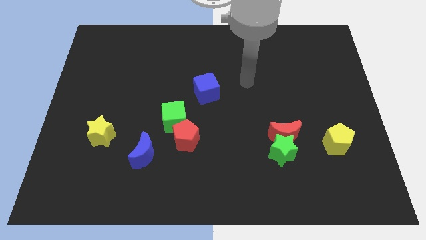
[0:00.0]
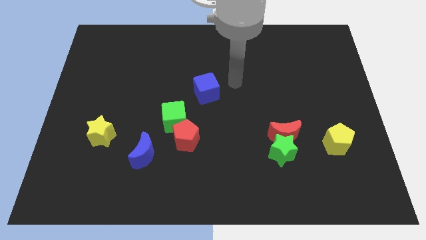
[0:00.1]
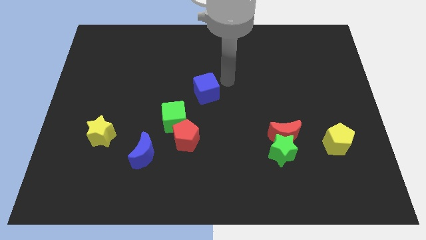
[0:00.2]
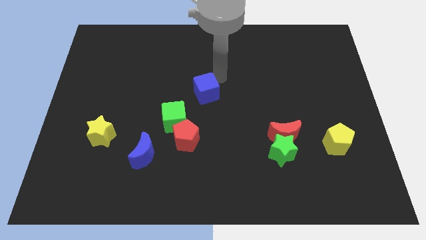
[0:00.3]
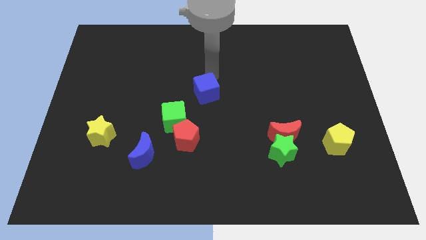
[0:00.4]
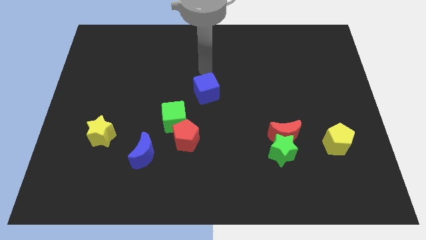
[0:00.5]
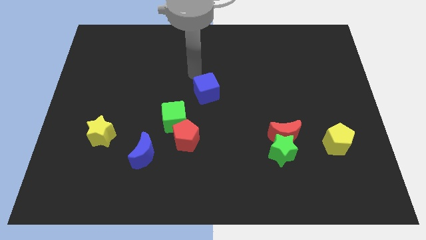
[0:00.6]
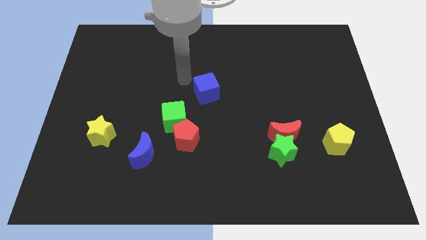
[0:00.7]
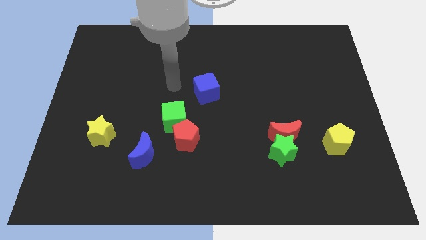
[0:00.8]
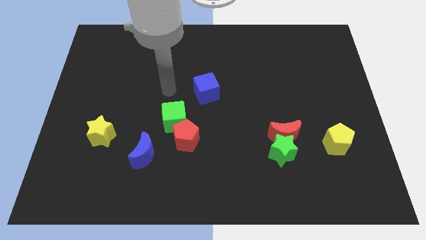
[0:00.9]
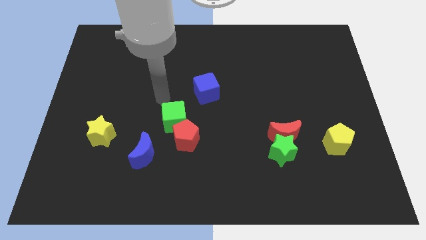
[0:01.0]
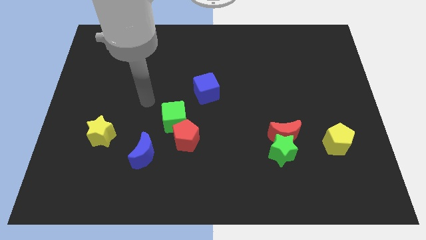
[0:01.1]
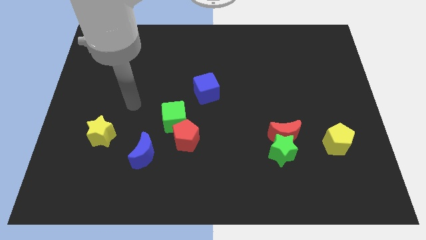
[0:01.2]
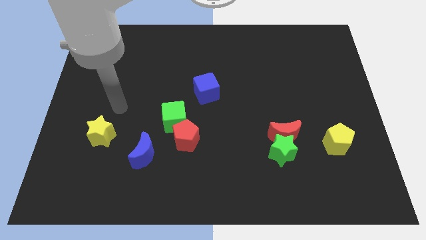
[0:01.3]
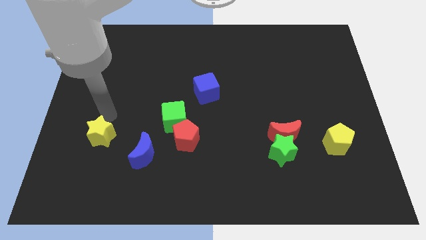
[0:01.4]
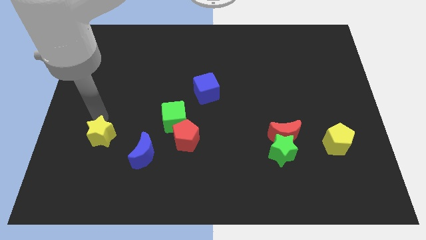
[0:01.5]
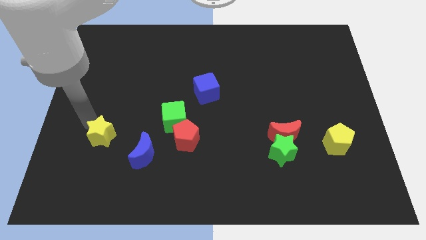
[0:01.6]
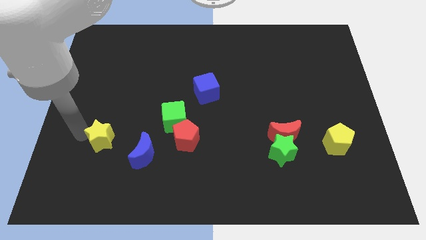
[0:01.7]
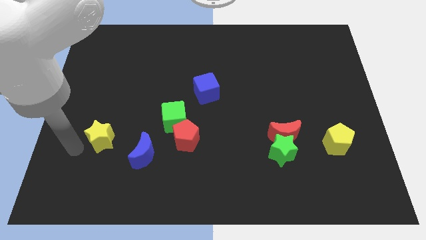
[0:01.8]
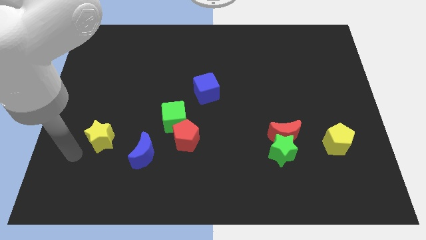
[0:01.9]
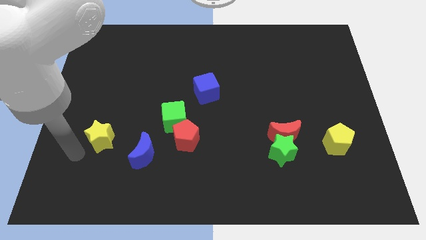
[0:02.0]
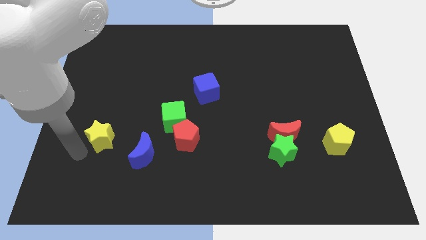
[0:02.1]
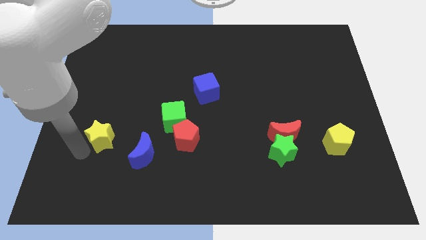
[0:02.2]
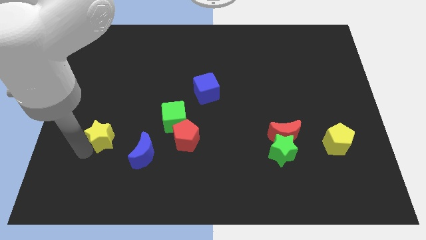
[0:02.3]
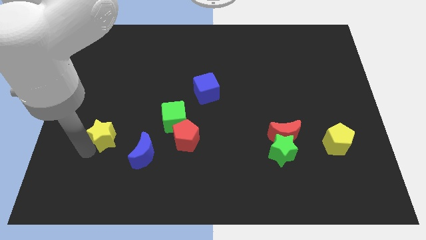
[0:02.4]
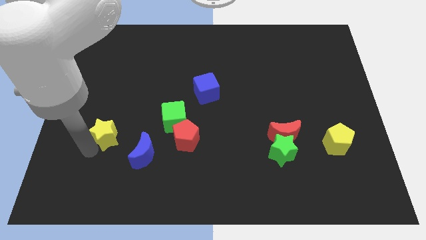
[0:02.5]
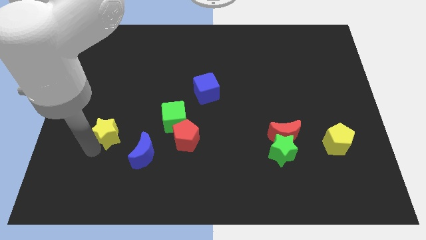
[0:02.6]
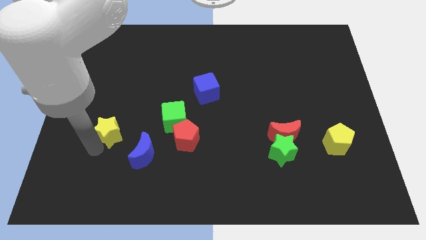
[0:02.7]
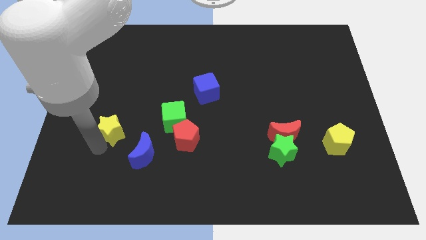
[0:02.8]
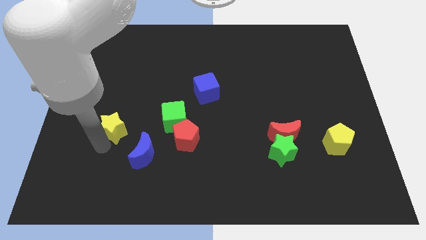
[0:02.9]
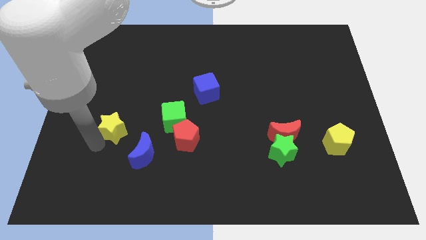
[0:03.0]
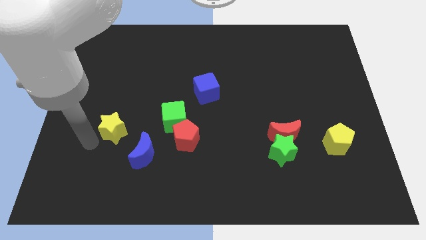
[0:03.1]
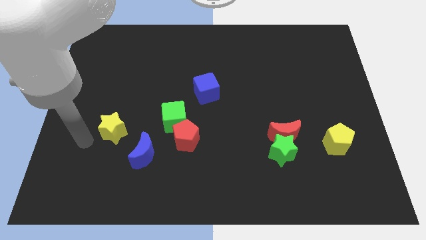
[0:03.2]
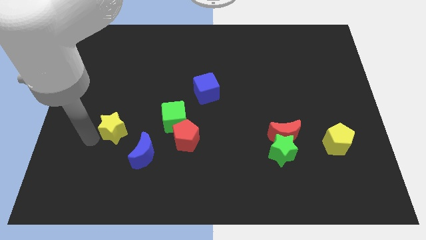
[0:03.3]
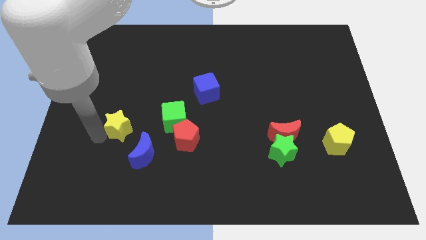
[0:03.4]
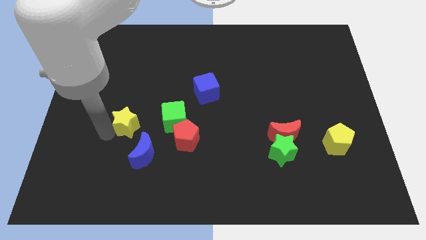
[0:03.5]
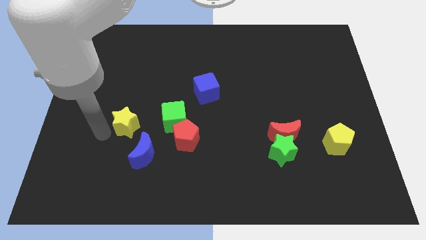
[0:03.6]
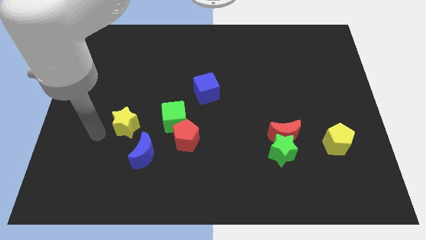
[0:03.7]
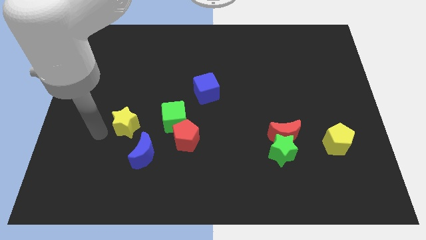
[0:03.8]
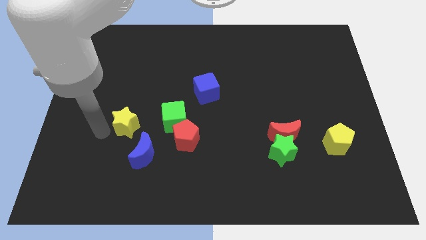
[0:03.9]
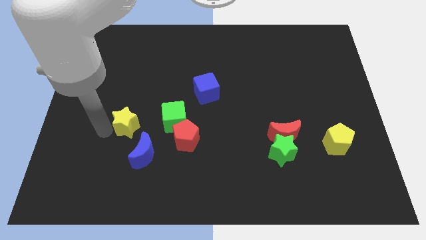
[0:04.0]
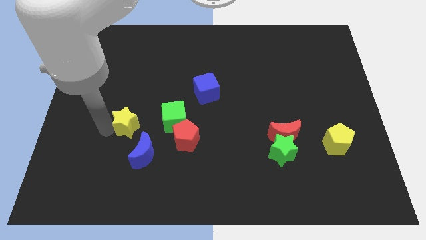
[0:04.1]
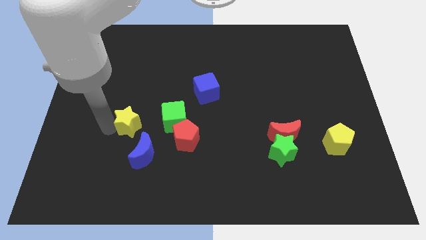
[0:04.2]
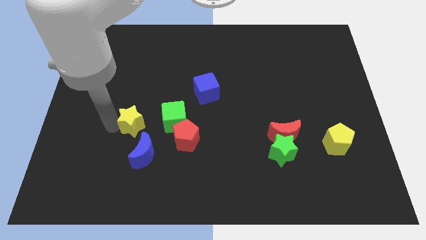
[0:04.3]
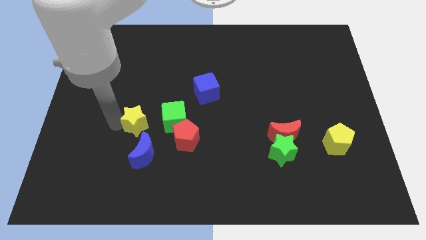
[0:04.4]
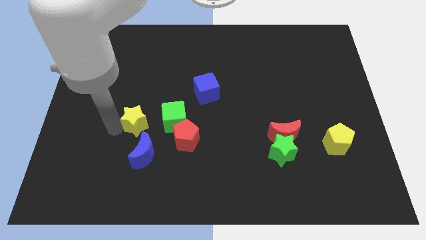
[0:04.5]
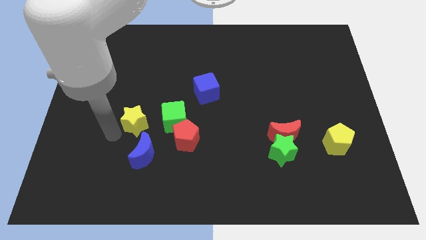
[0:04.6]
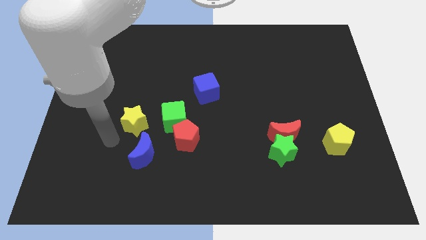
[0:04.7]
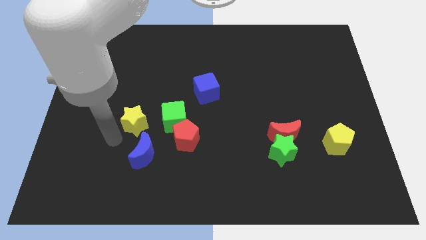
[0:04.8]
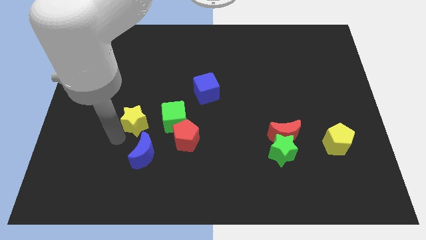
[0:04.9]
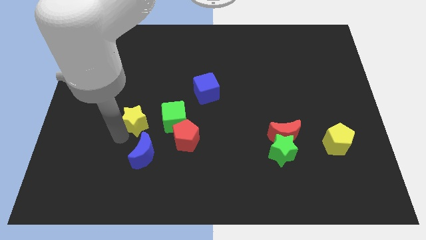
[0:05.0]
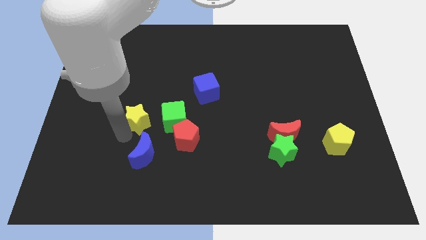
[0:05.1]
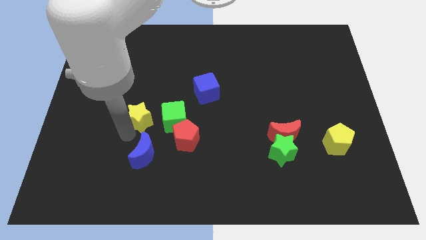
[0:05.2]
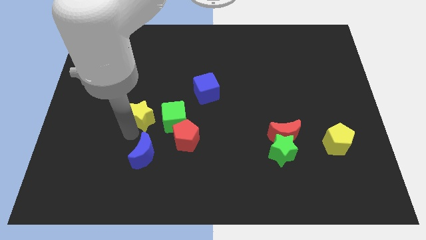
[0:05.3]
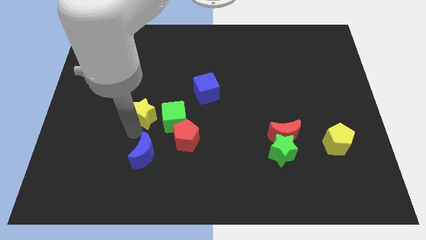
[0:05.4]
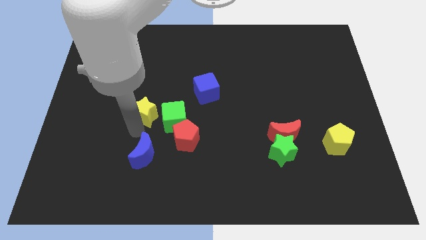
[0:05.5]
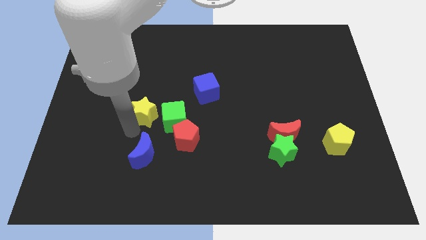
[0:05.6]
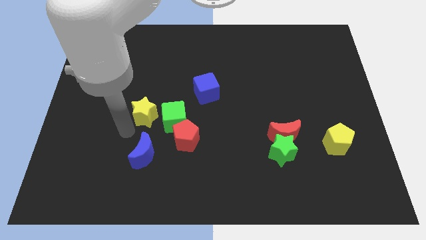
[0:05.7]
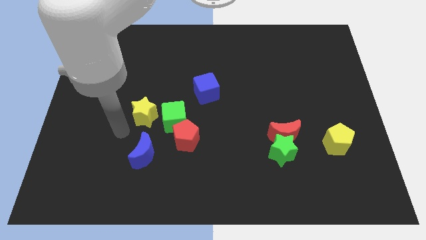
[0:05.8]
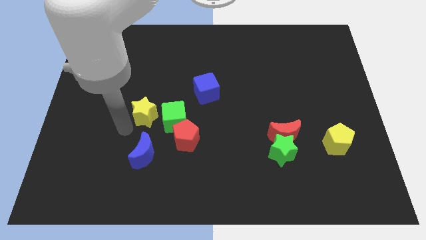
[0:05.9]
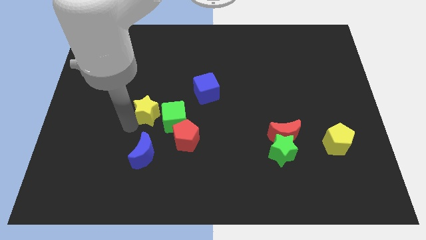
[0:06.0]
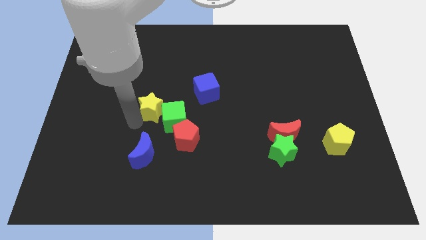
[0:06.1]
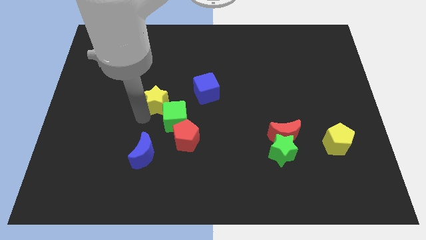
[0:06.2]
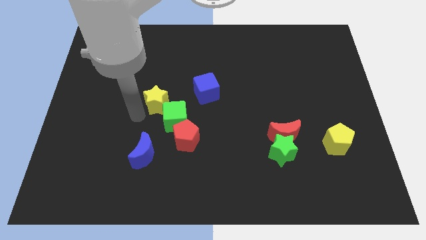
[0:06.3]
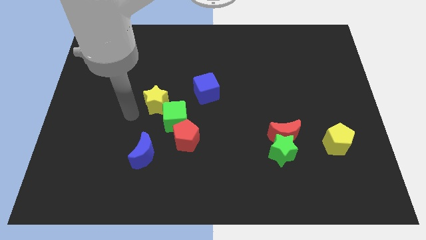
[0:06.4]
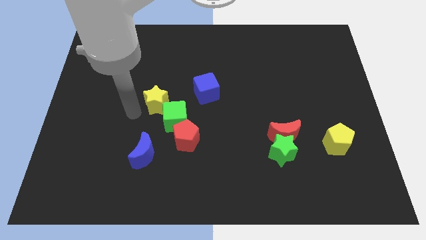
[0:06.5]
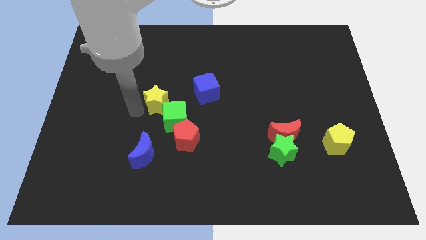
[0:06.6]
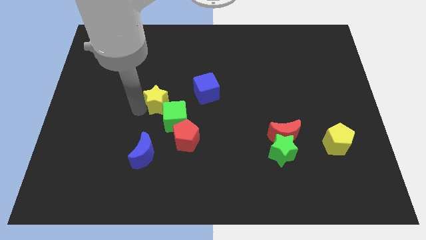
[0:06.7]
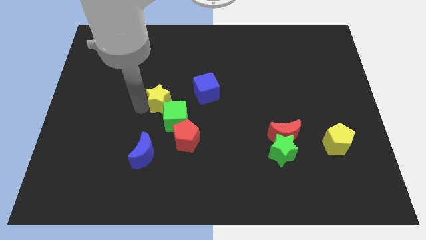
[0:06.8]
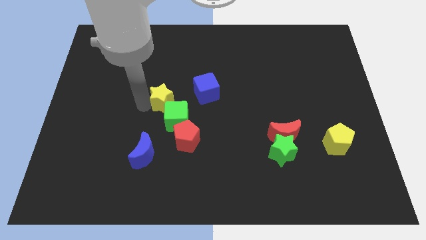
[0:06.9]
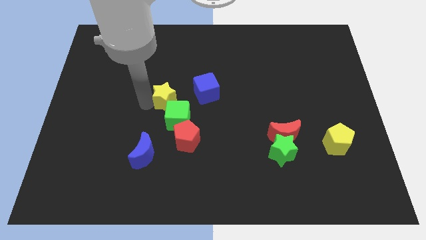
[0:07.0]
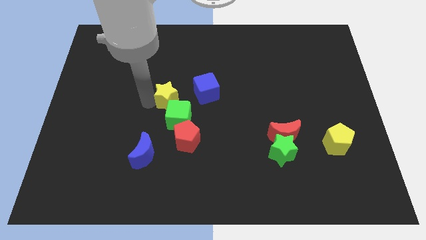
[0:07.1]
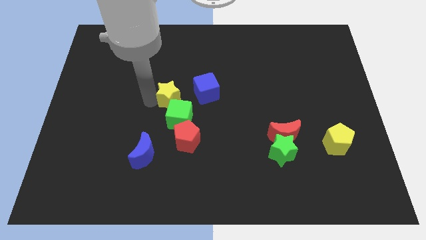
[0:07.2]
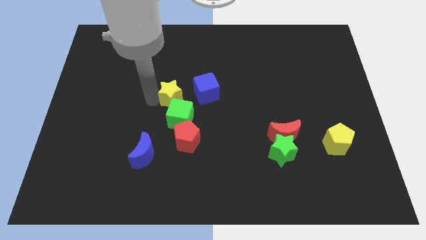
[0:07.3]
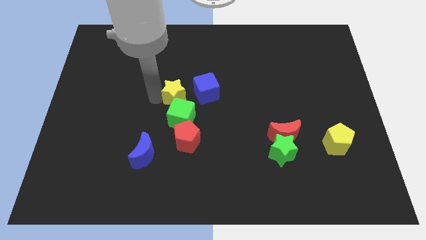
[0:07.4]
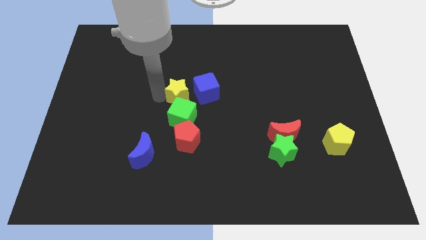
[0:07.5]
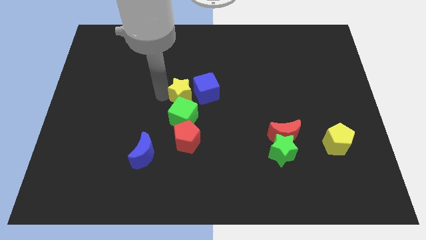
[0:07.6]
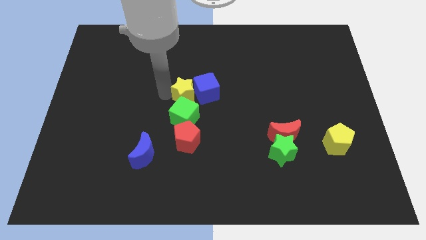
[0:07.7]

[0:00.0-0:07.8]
push the yellow star to the blue cube

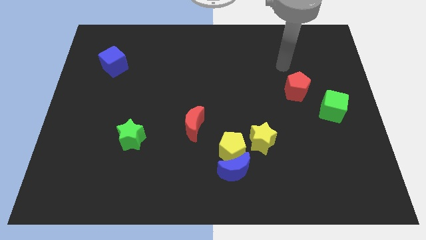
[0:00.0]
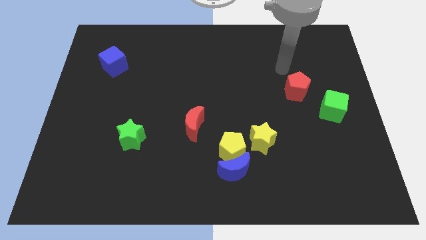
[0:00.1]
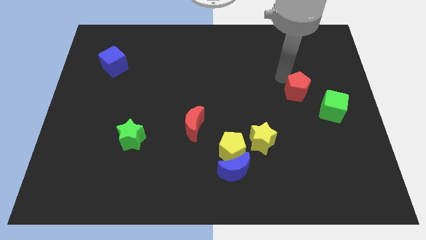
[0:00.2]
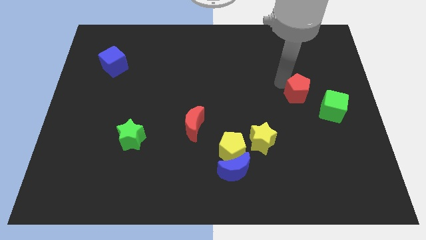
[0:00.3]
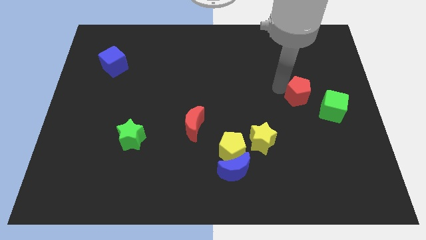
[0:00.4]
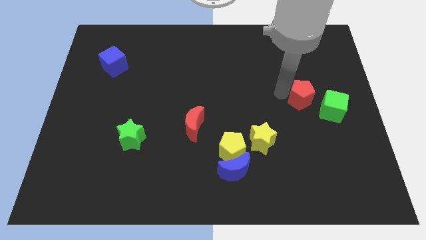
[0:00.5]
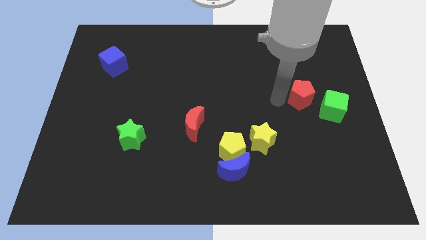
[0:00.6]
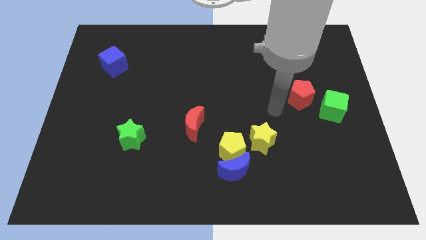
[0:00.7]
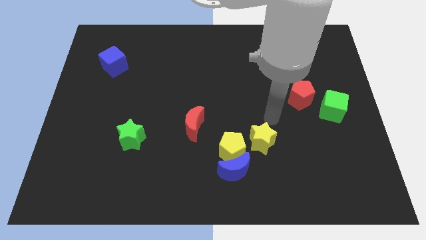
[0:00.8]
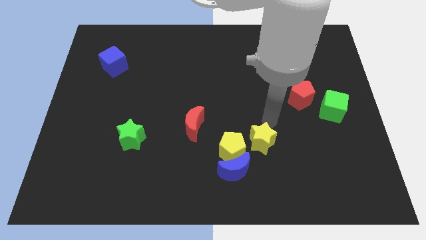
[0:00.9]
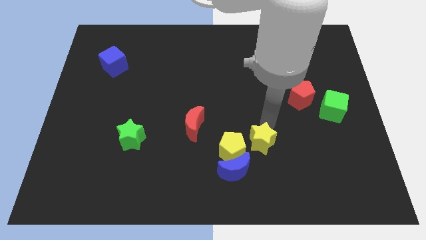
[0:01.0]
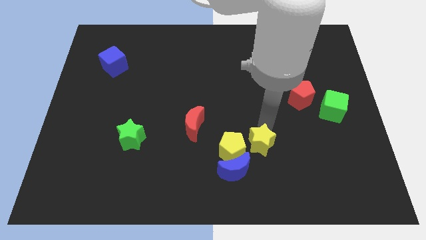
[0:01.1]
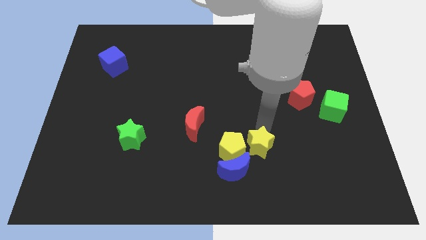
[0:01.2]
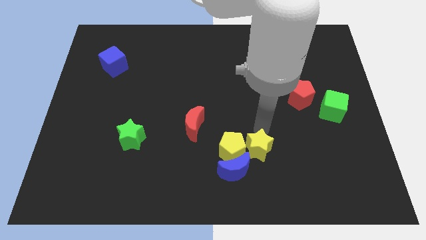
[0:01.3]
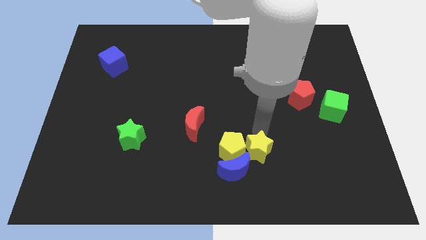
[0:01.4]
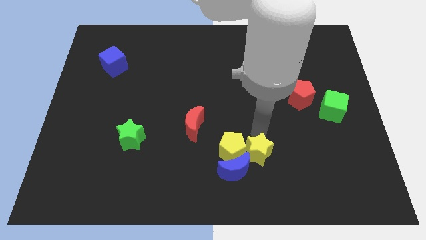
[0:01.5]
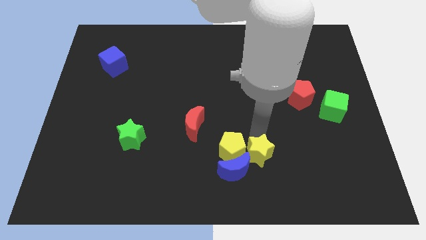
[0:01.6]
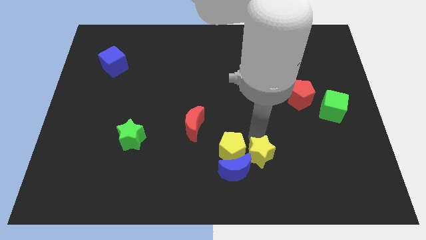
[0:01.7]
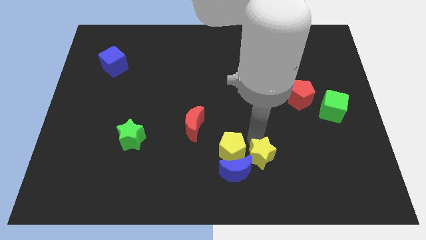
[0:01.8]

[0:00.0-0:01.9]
slide the yellow star next to the blue moon
